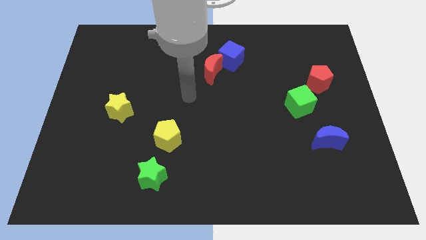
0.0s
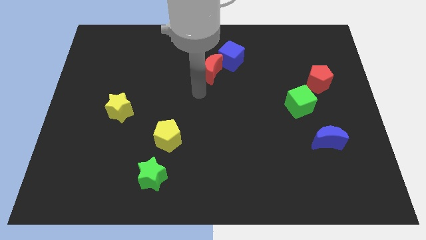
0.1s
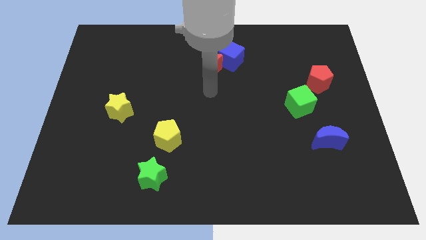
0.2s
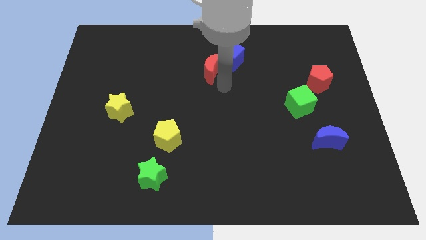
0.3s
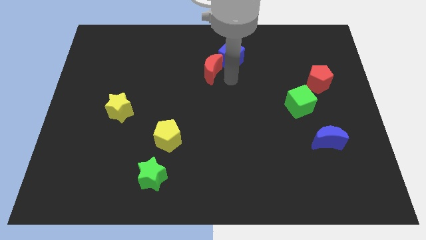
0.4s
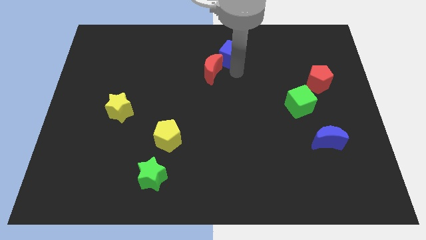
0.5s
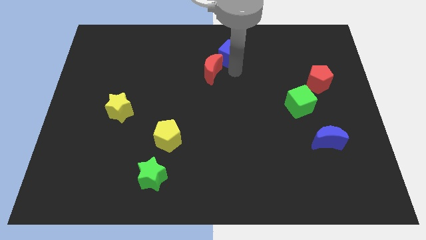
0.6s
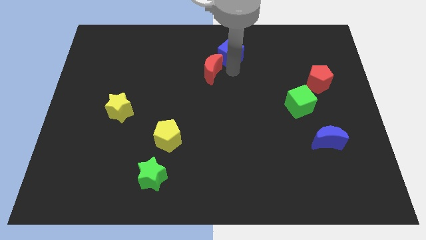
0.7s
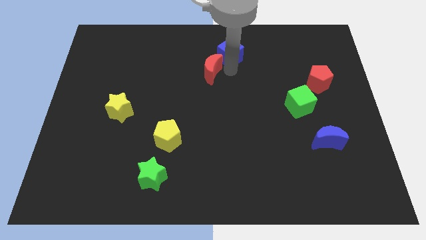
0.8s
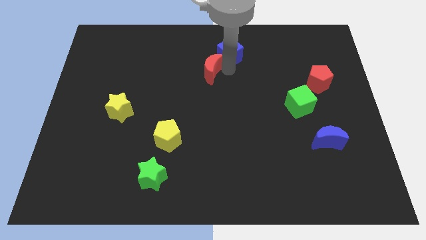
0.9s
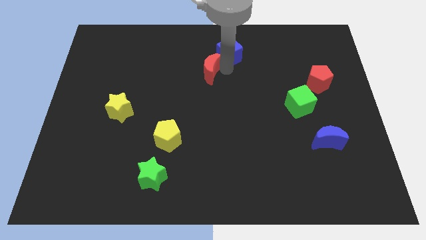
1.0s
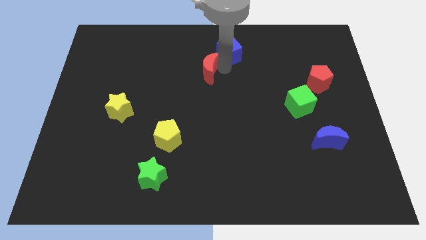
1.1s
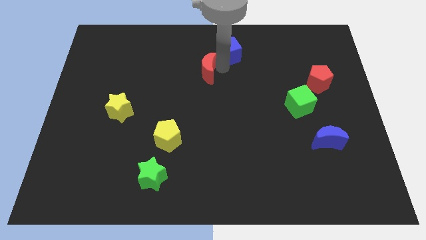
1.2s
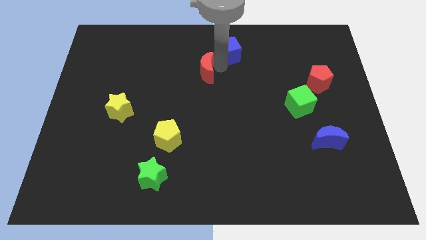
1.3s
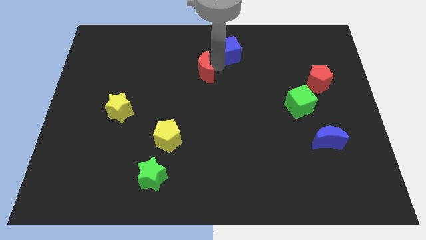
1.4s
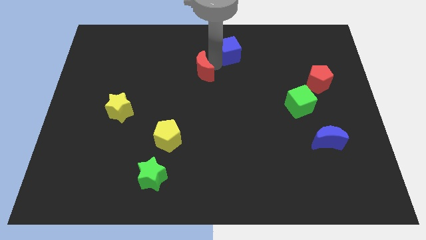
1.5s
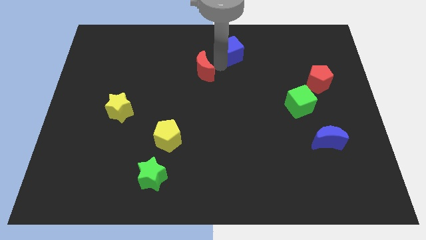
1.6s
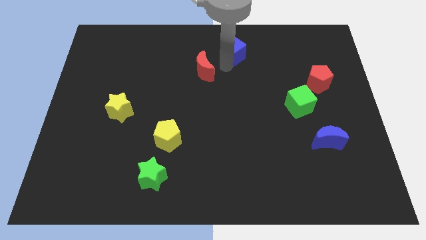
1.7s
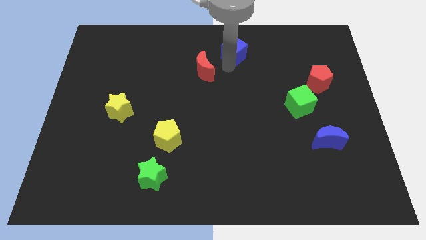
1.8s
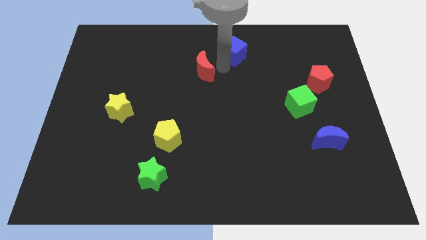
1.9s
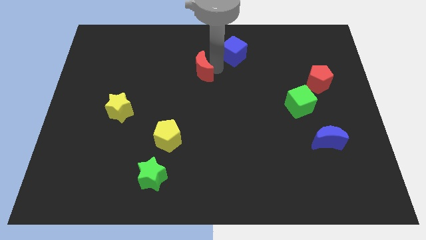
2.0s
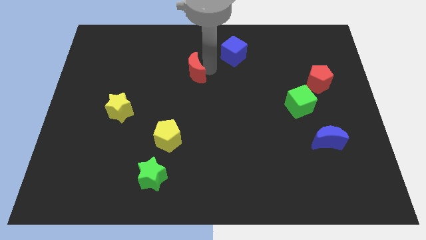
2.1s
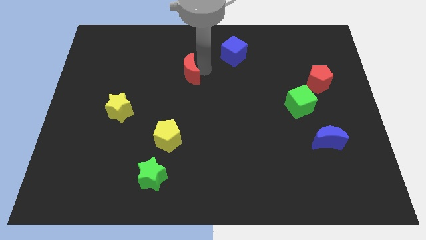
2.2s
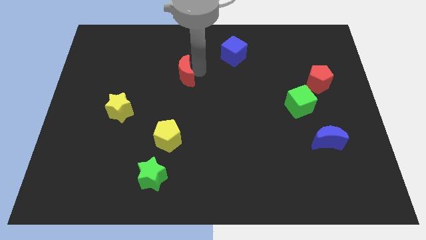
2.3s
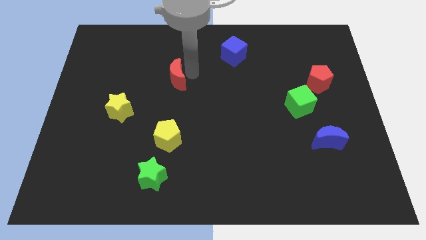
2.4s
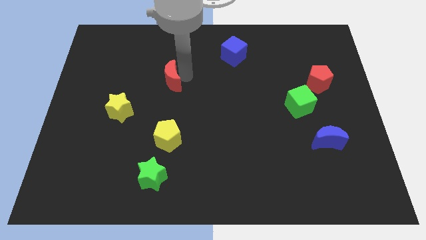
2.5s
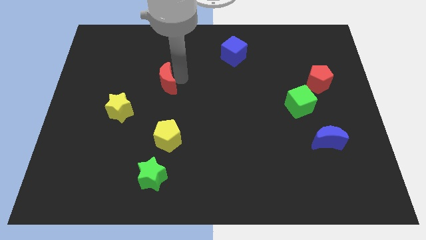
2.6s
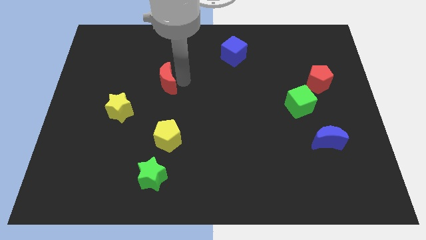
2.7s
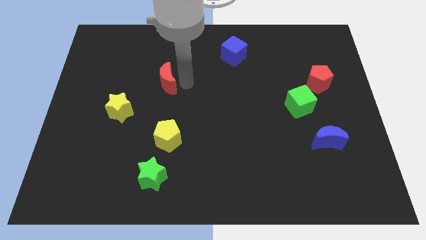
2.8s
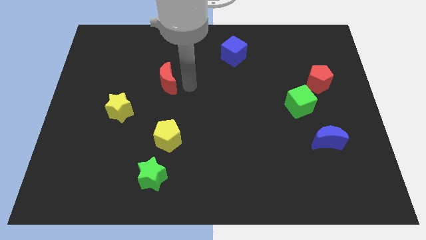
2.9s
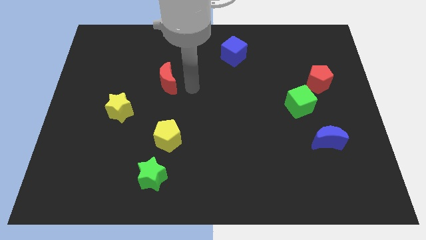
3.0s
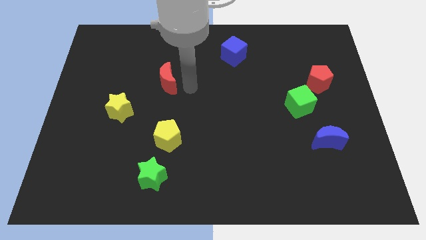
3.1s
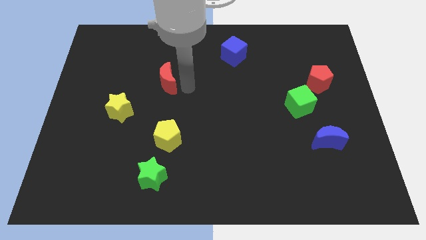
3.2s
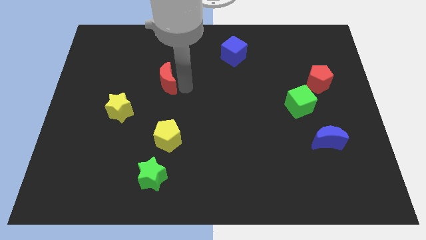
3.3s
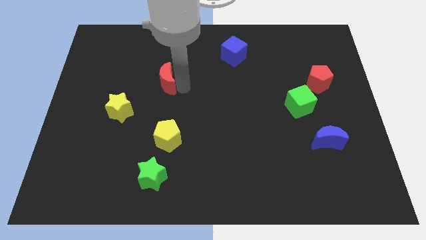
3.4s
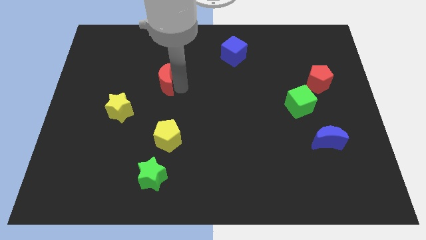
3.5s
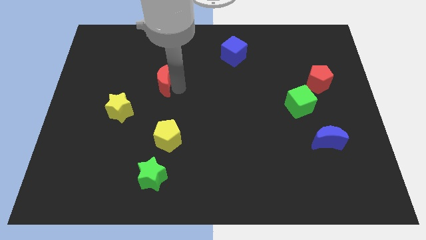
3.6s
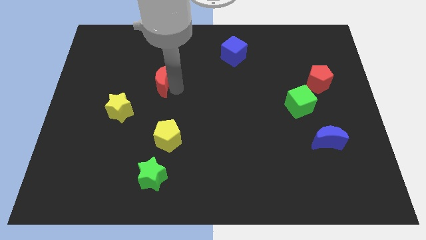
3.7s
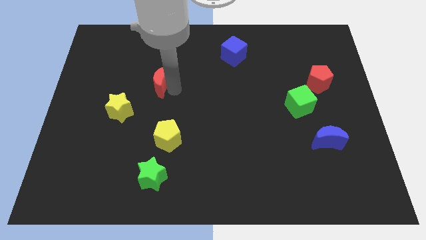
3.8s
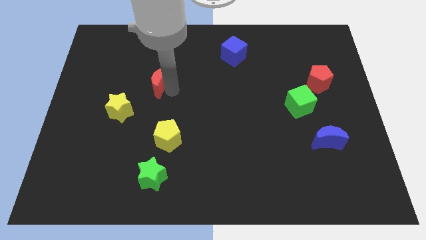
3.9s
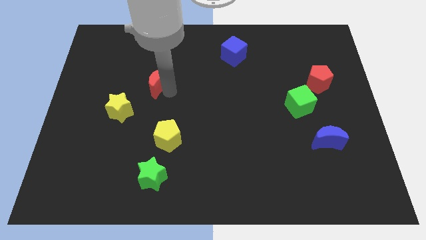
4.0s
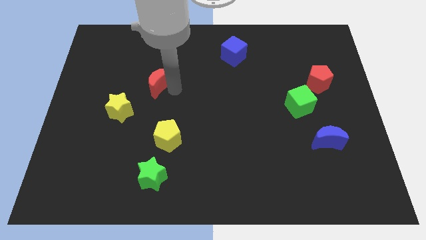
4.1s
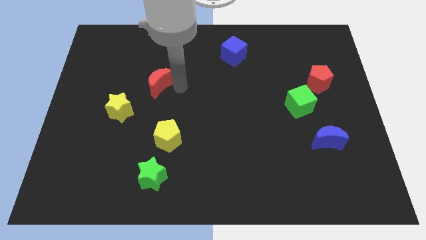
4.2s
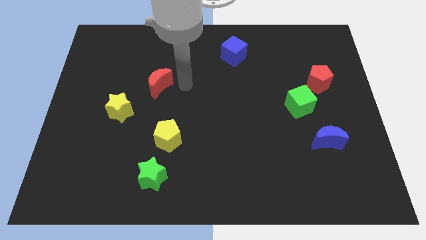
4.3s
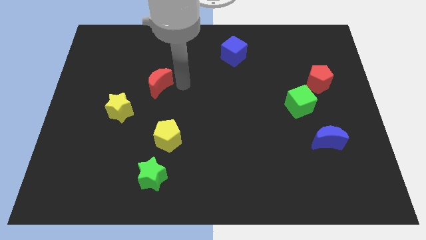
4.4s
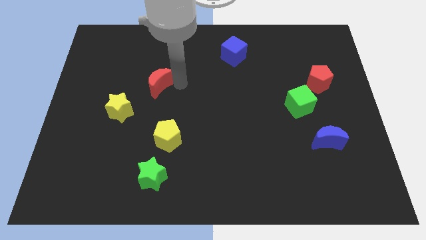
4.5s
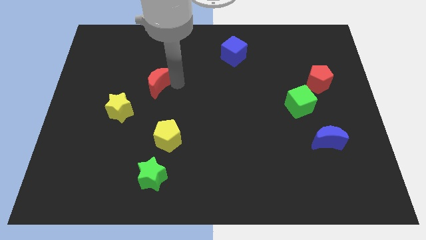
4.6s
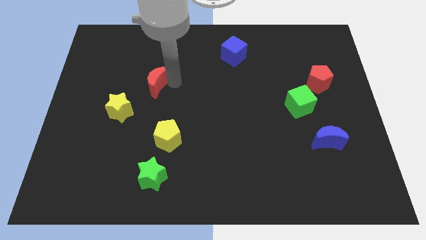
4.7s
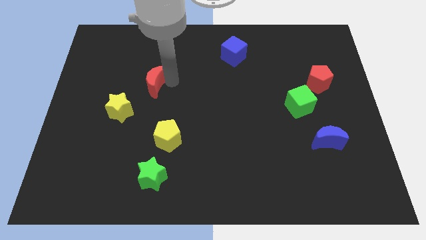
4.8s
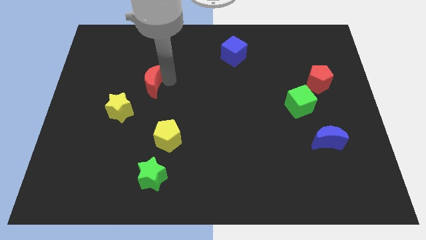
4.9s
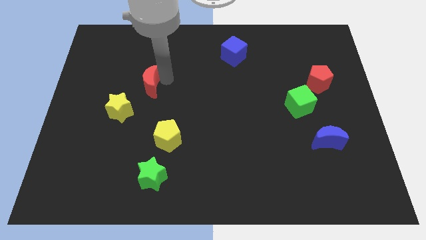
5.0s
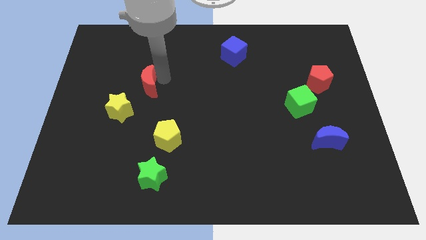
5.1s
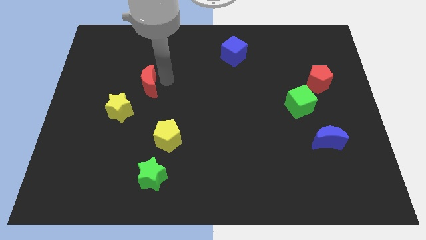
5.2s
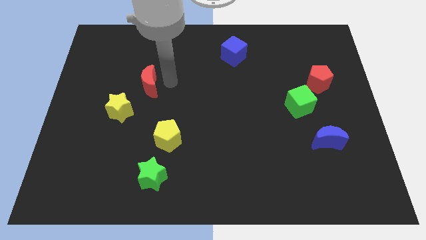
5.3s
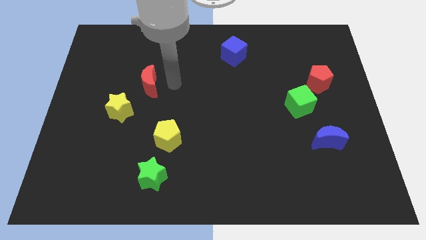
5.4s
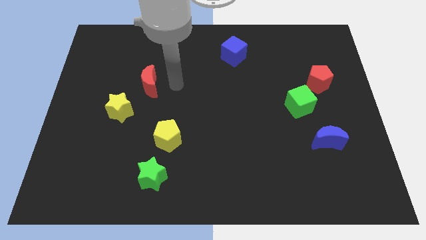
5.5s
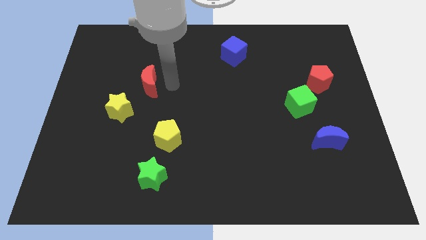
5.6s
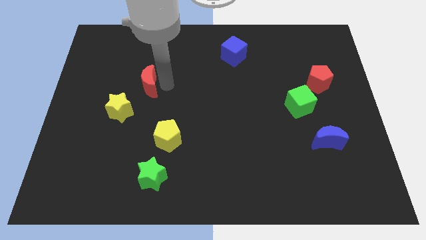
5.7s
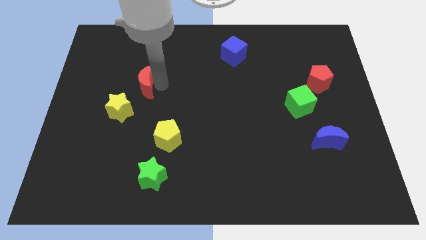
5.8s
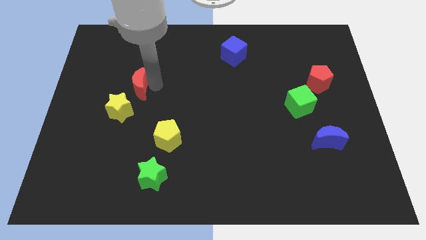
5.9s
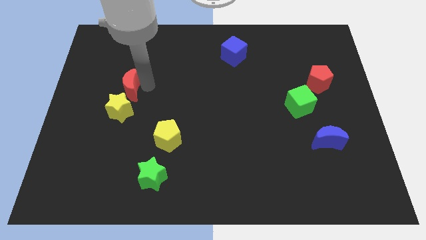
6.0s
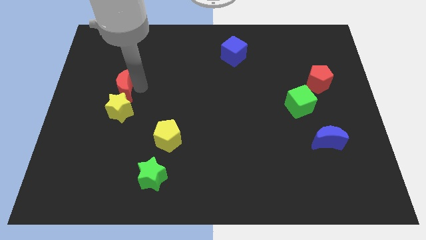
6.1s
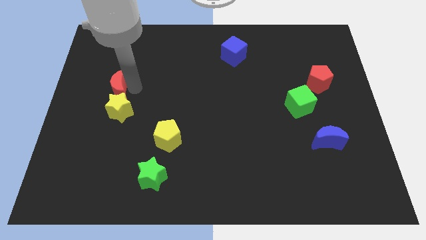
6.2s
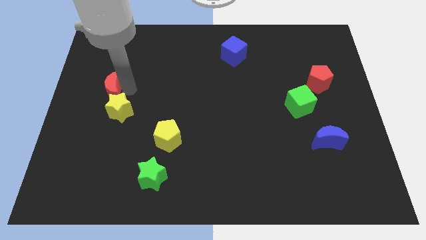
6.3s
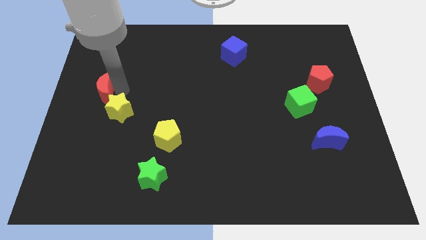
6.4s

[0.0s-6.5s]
slide the red moon to the left side
